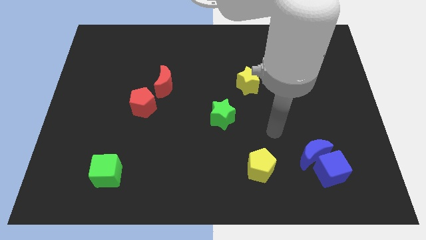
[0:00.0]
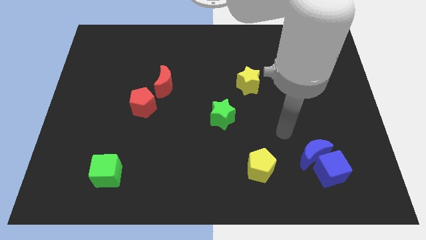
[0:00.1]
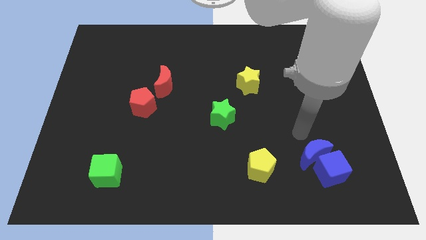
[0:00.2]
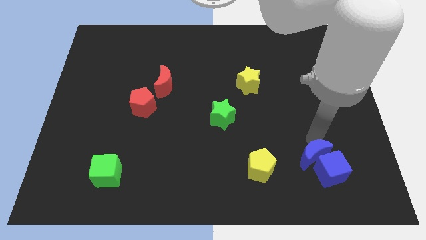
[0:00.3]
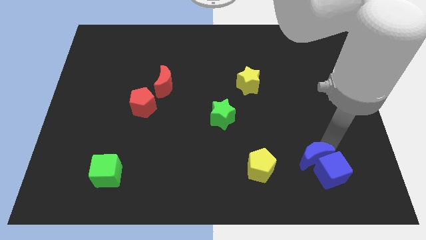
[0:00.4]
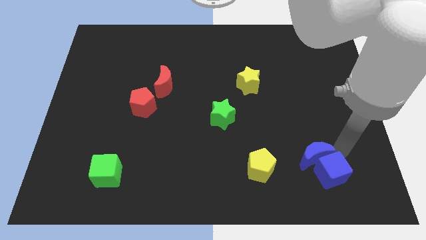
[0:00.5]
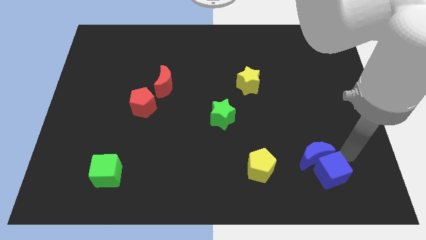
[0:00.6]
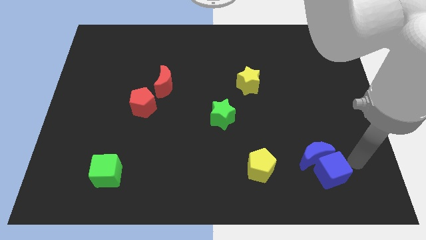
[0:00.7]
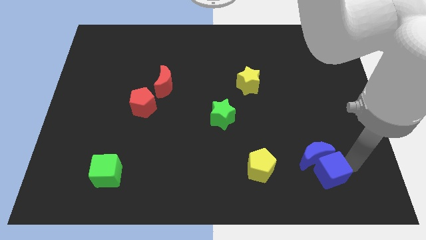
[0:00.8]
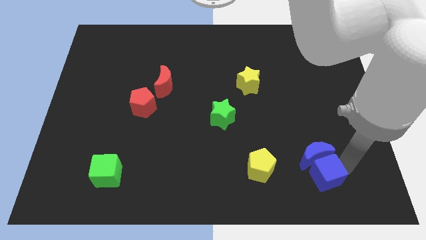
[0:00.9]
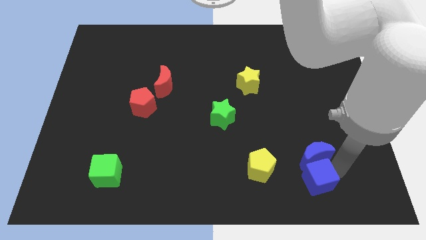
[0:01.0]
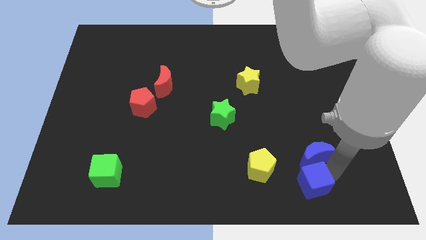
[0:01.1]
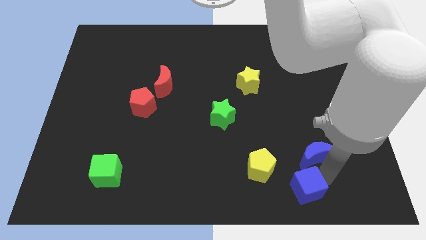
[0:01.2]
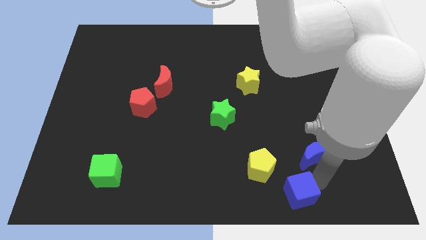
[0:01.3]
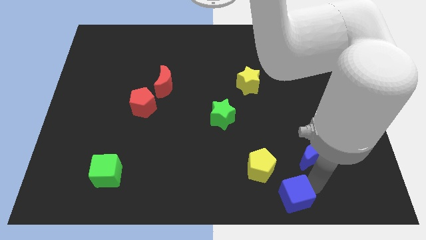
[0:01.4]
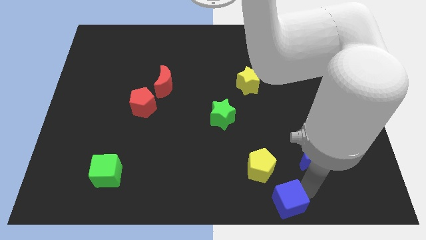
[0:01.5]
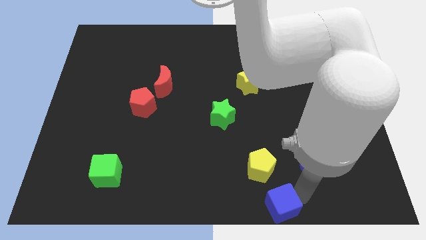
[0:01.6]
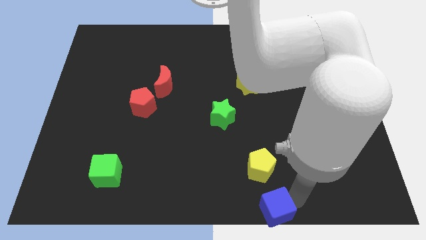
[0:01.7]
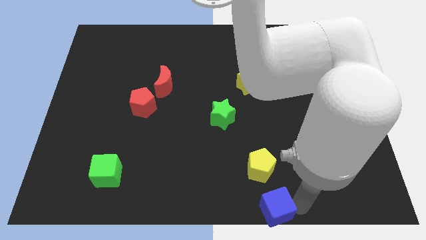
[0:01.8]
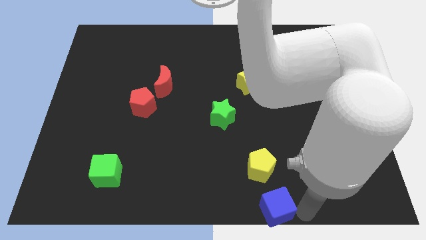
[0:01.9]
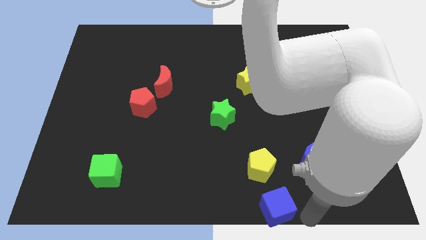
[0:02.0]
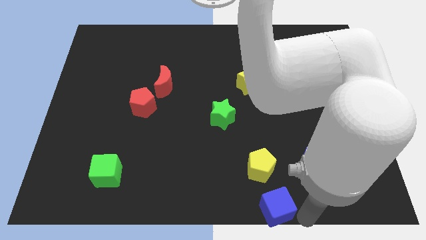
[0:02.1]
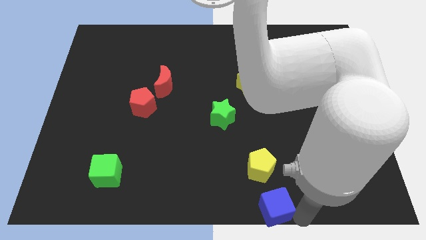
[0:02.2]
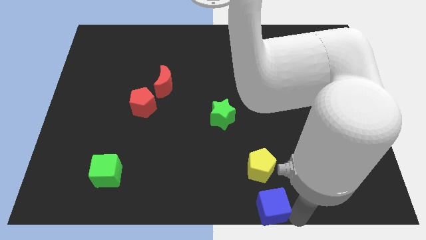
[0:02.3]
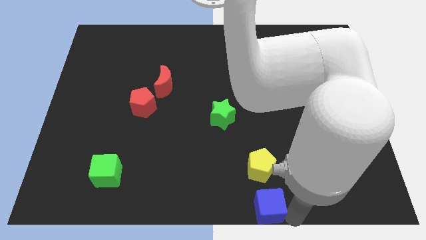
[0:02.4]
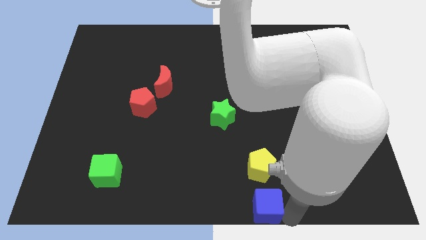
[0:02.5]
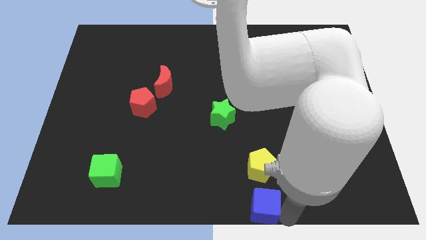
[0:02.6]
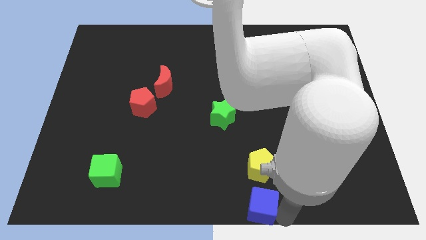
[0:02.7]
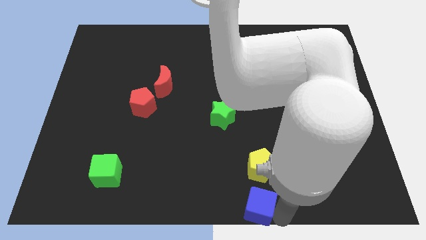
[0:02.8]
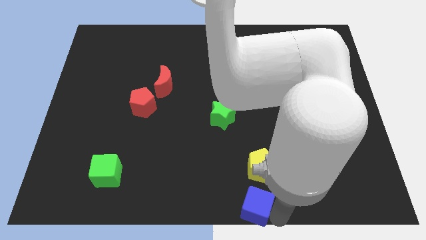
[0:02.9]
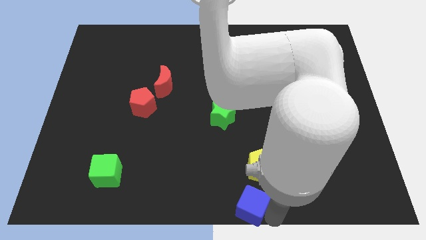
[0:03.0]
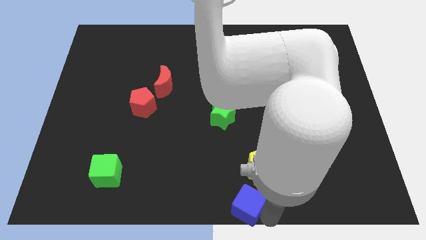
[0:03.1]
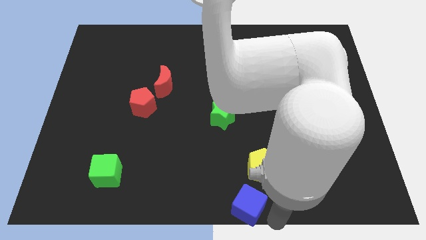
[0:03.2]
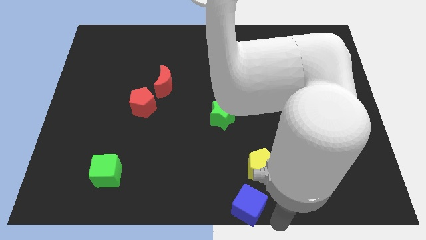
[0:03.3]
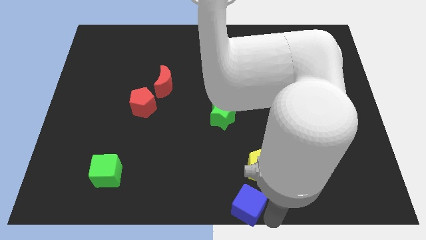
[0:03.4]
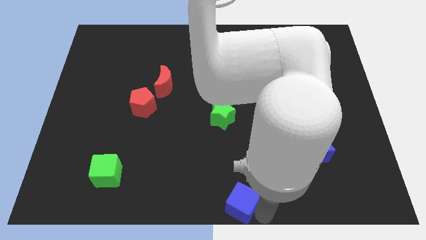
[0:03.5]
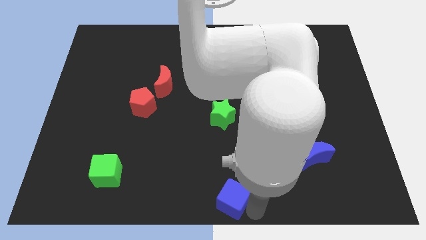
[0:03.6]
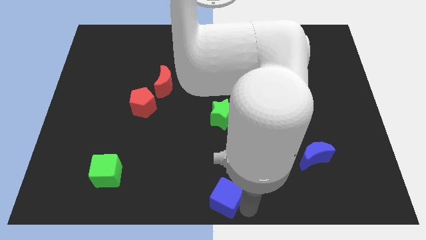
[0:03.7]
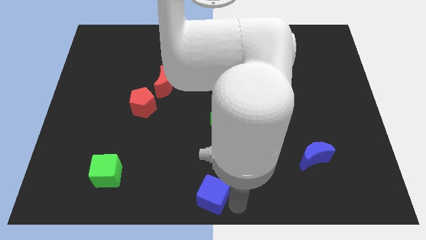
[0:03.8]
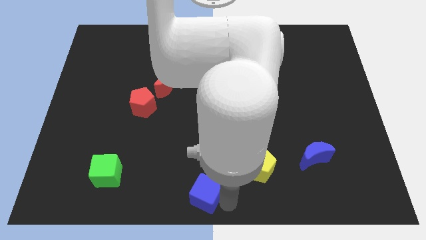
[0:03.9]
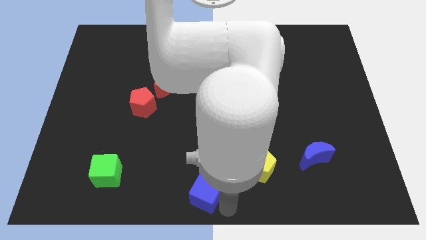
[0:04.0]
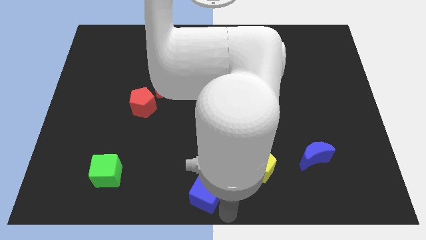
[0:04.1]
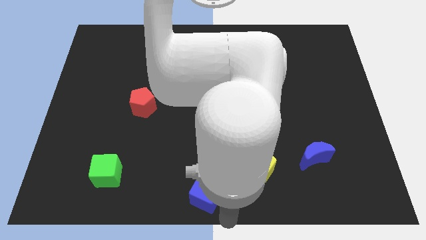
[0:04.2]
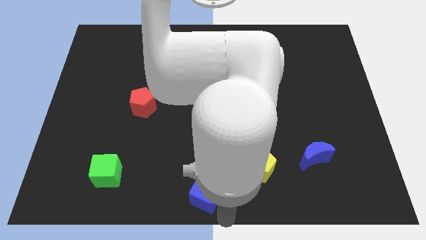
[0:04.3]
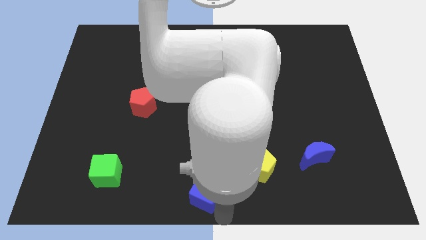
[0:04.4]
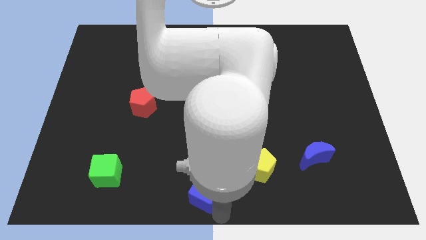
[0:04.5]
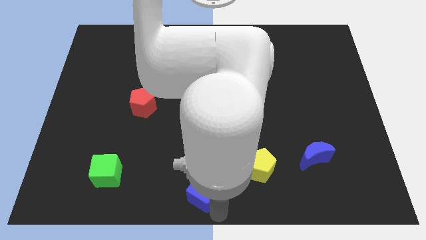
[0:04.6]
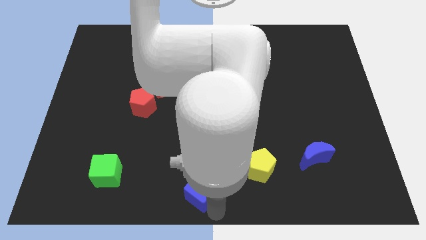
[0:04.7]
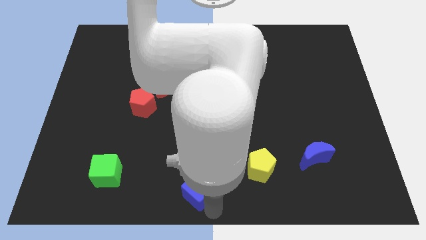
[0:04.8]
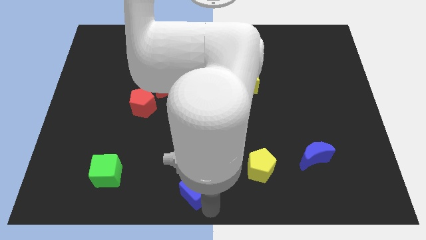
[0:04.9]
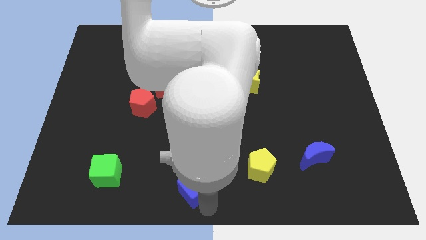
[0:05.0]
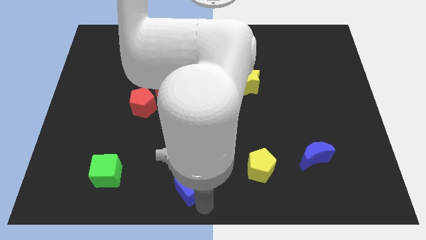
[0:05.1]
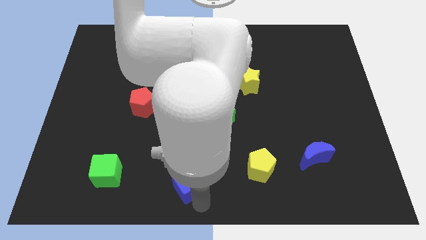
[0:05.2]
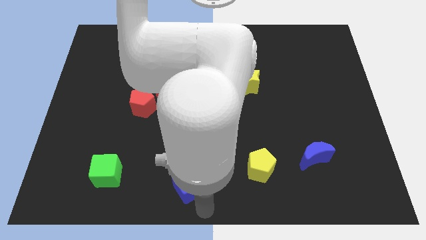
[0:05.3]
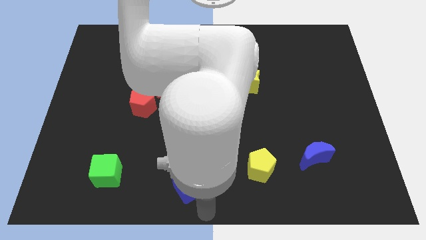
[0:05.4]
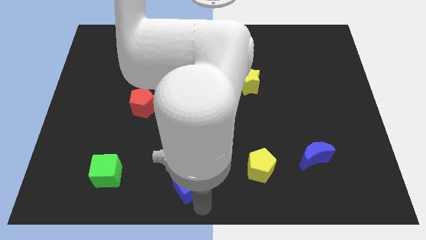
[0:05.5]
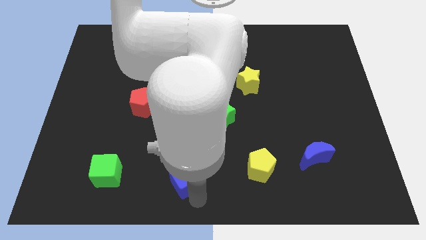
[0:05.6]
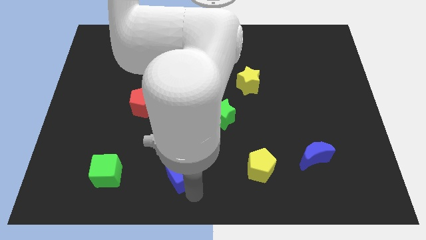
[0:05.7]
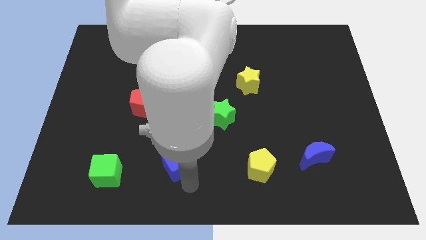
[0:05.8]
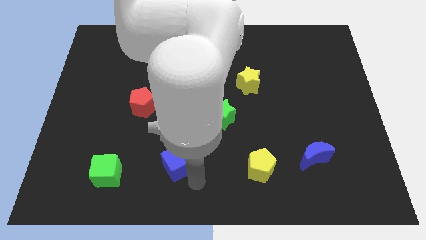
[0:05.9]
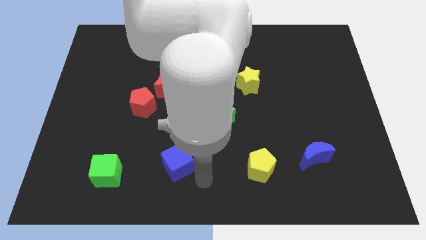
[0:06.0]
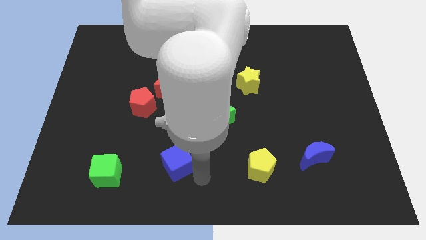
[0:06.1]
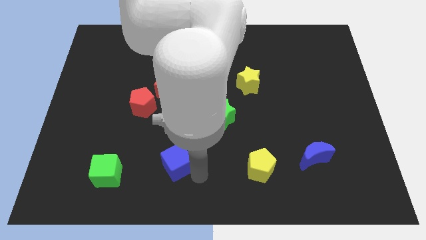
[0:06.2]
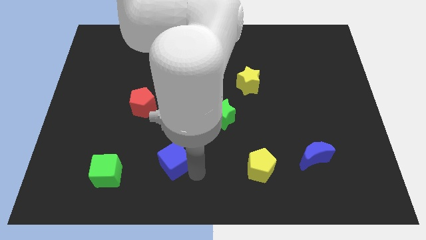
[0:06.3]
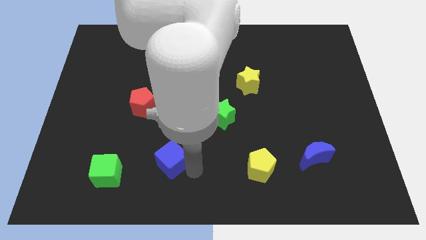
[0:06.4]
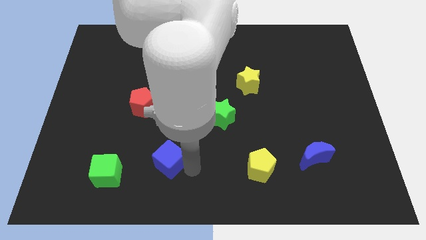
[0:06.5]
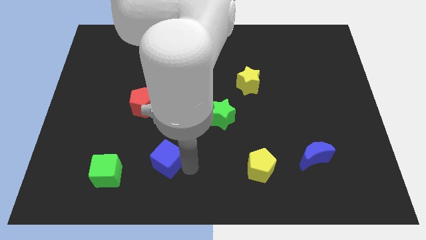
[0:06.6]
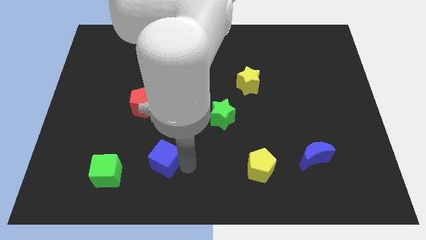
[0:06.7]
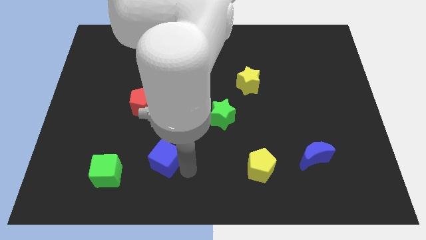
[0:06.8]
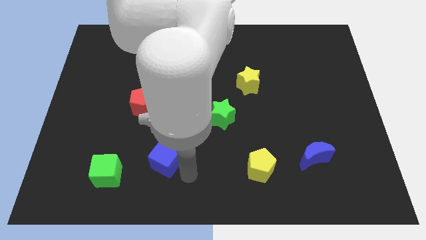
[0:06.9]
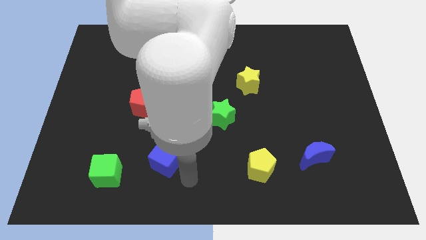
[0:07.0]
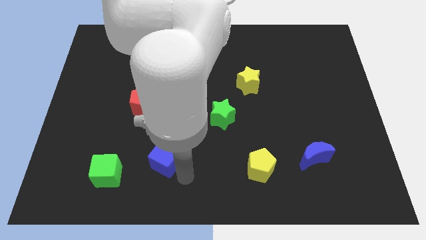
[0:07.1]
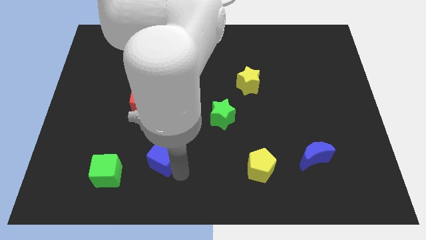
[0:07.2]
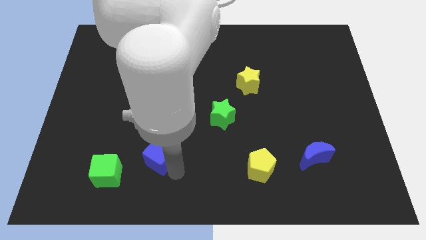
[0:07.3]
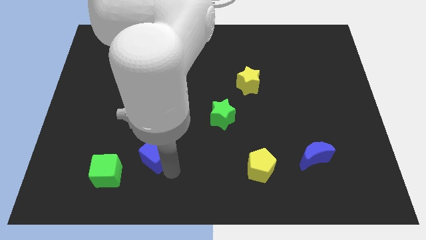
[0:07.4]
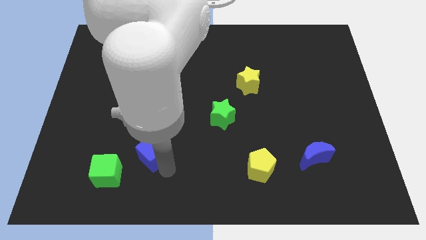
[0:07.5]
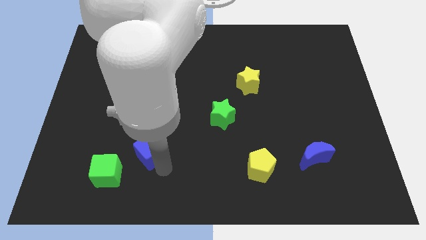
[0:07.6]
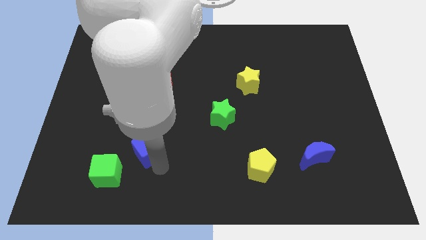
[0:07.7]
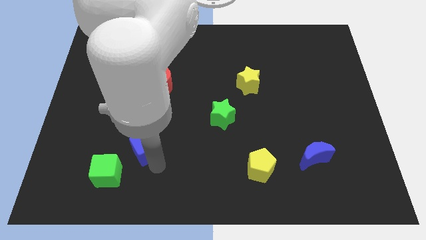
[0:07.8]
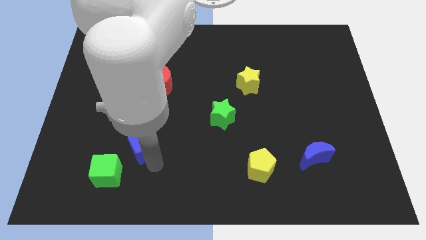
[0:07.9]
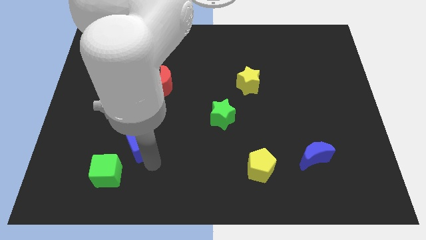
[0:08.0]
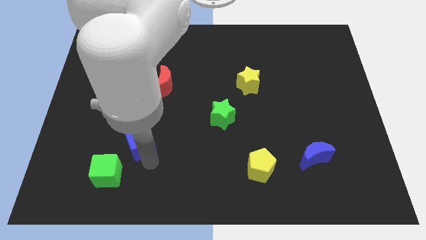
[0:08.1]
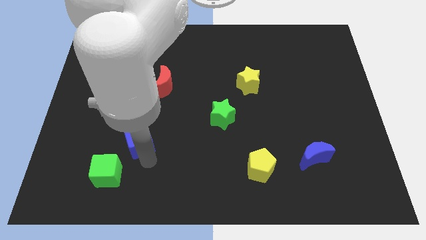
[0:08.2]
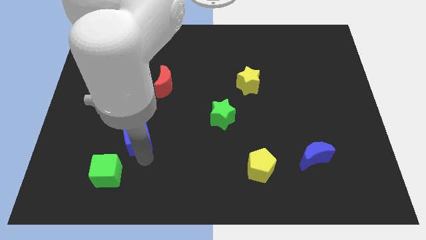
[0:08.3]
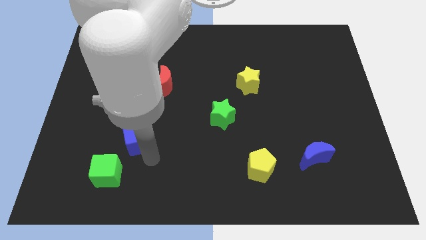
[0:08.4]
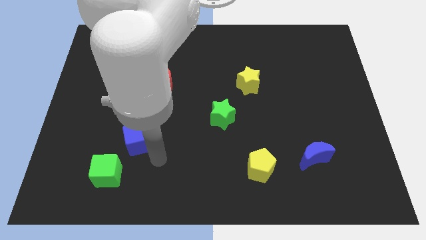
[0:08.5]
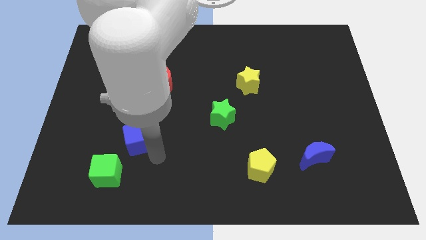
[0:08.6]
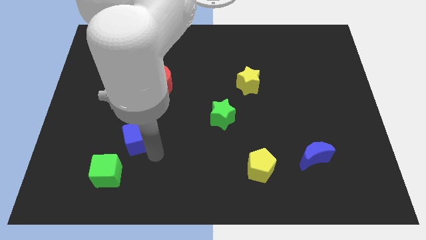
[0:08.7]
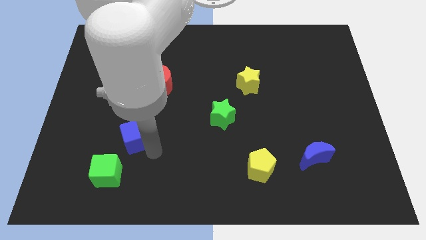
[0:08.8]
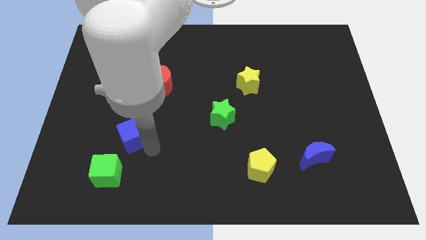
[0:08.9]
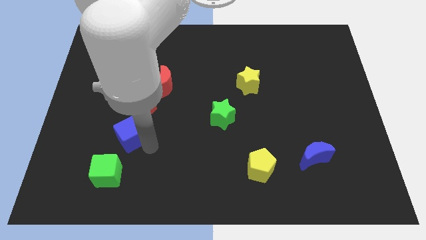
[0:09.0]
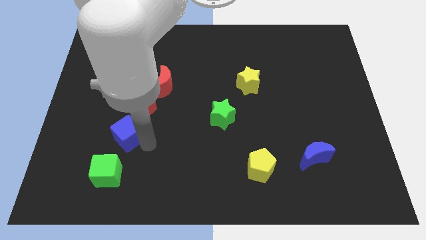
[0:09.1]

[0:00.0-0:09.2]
push the blue cube to the bottom left of the red pentagon
